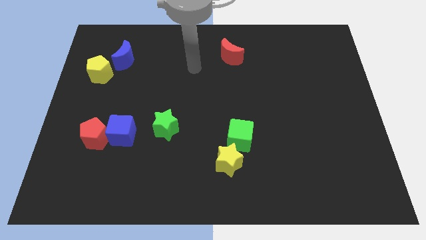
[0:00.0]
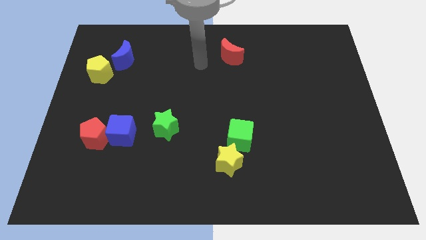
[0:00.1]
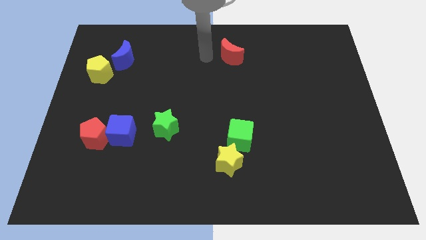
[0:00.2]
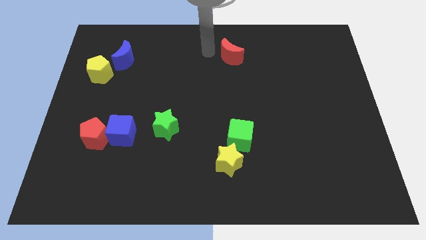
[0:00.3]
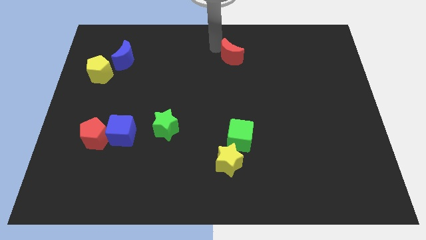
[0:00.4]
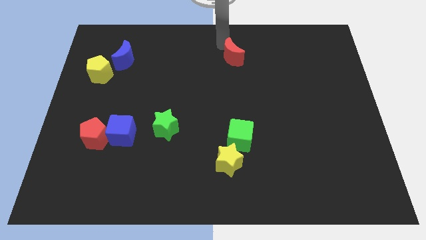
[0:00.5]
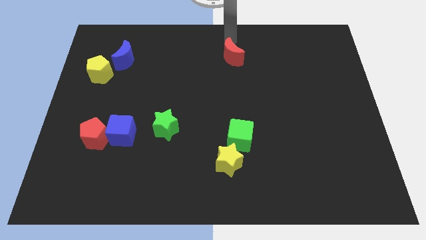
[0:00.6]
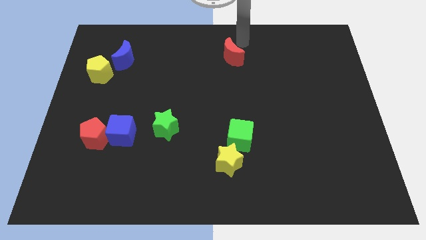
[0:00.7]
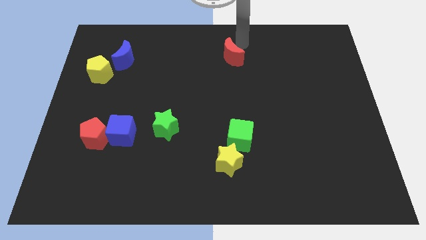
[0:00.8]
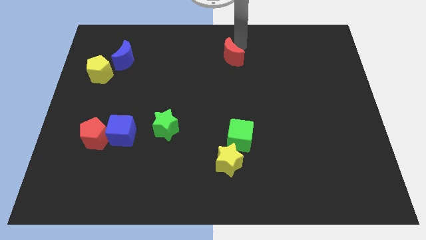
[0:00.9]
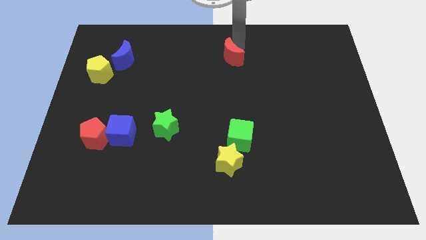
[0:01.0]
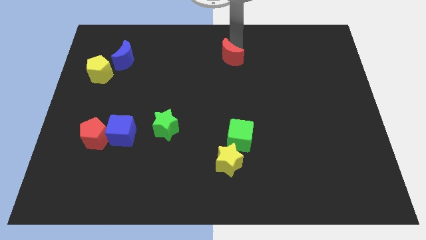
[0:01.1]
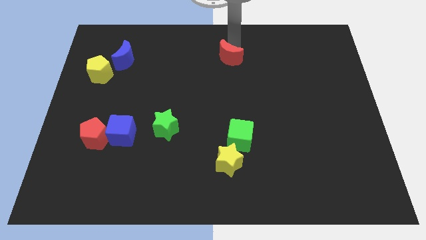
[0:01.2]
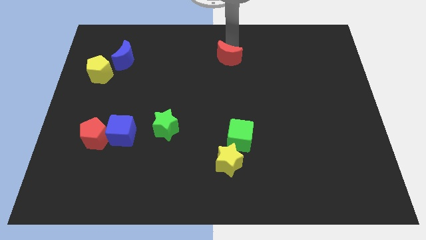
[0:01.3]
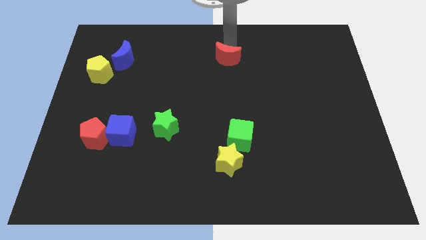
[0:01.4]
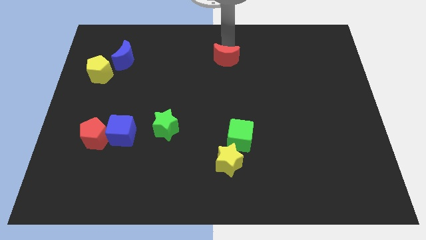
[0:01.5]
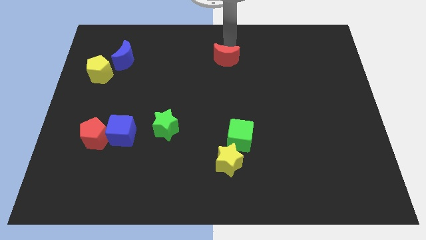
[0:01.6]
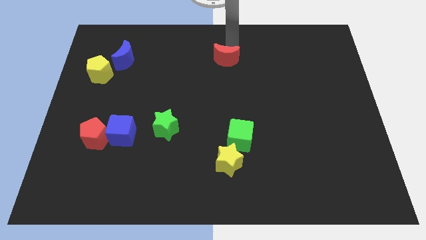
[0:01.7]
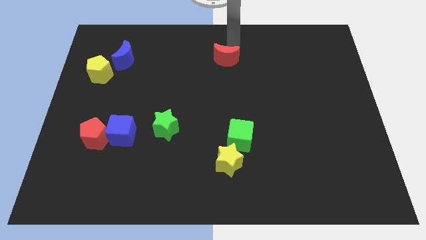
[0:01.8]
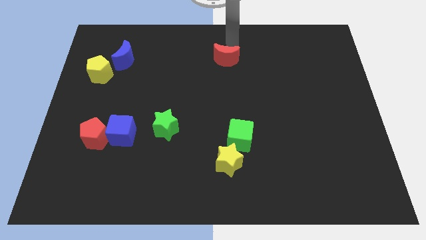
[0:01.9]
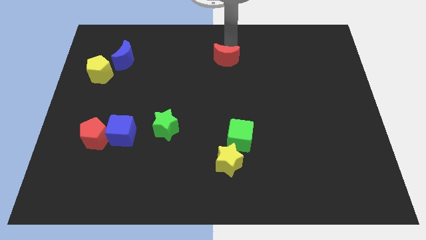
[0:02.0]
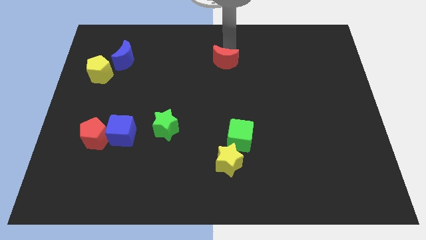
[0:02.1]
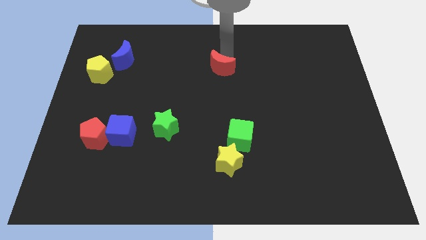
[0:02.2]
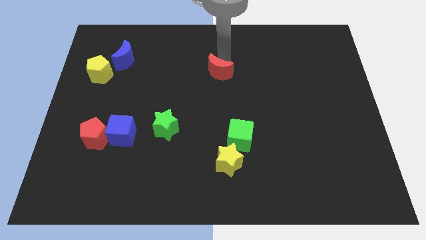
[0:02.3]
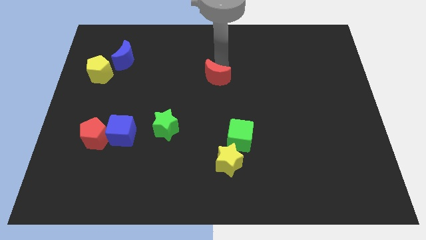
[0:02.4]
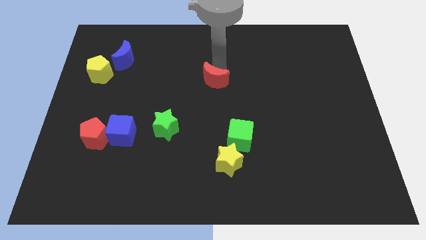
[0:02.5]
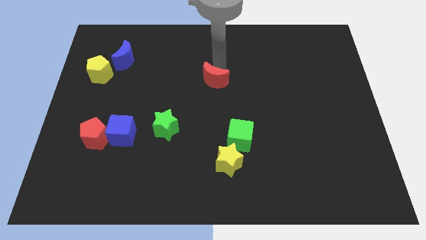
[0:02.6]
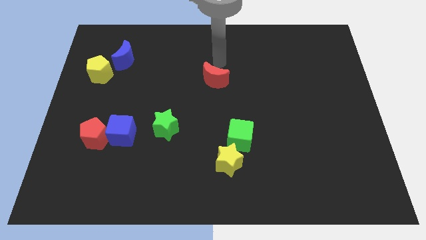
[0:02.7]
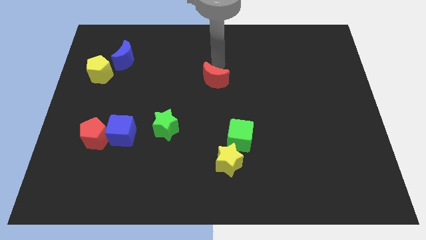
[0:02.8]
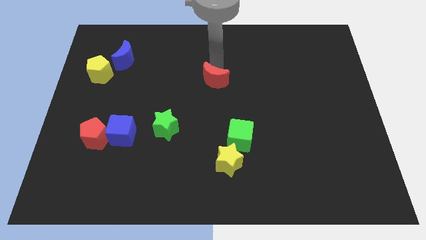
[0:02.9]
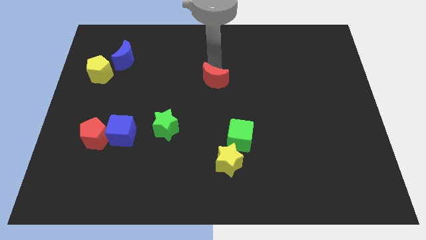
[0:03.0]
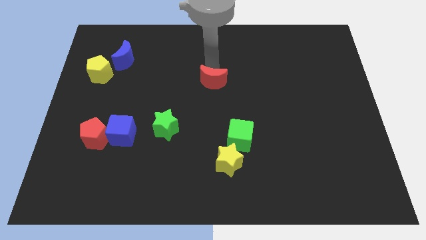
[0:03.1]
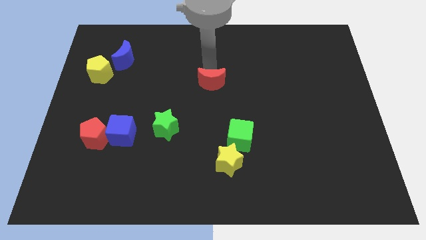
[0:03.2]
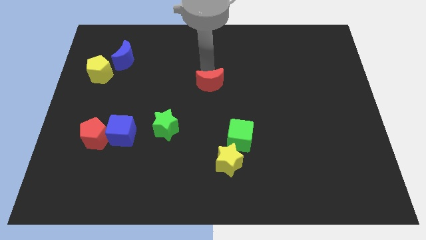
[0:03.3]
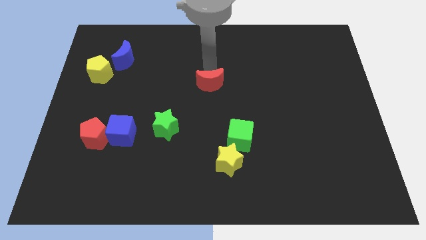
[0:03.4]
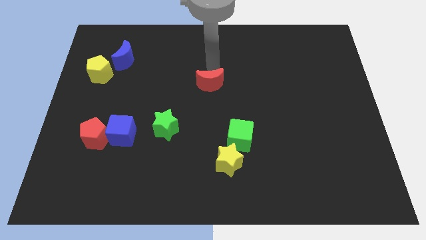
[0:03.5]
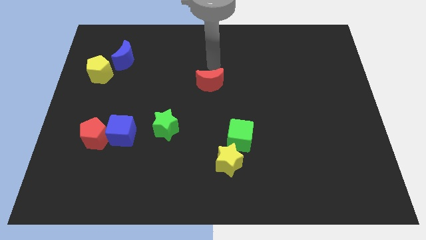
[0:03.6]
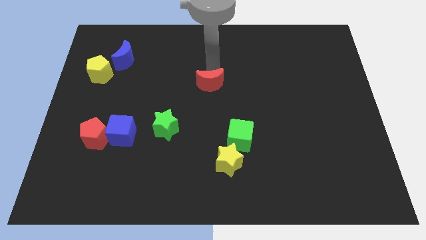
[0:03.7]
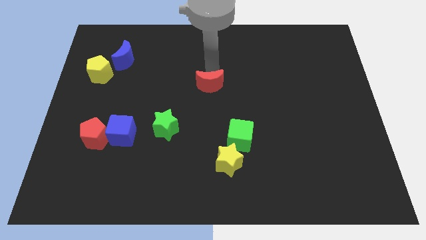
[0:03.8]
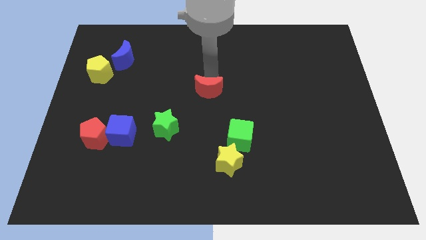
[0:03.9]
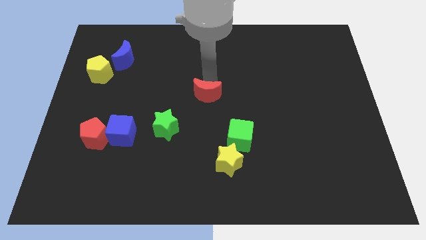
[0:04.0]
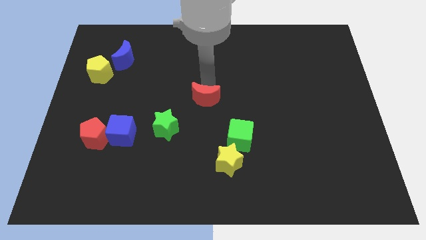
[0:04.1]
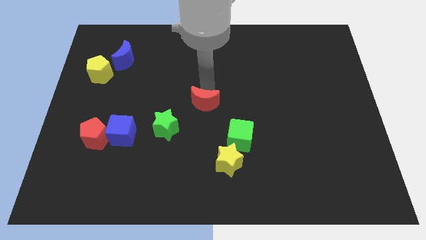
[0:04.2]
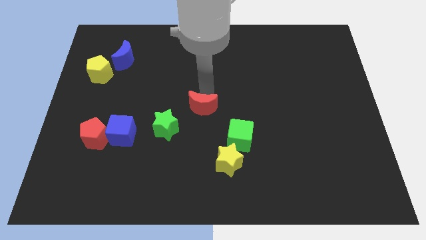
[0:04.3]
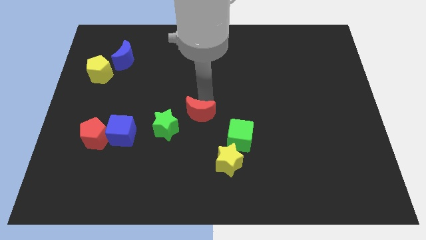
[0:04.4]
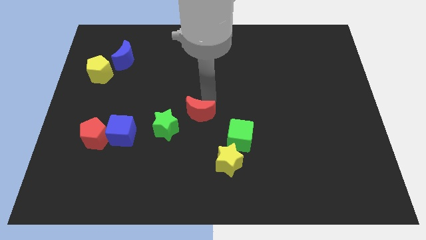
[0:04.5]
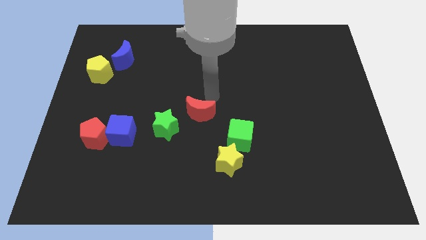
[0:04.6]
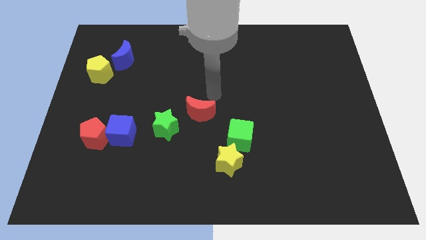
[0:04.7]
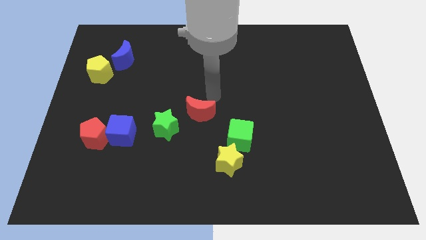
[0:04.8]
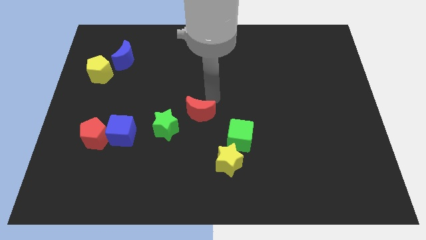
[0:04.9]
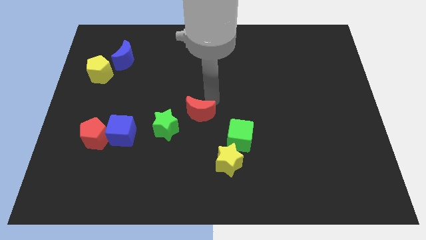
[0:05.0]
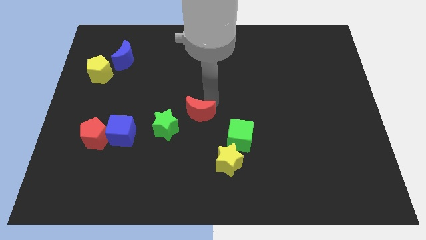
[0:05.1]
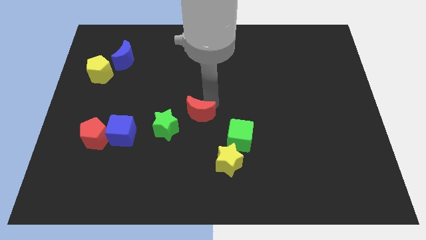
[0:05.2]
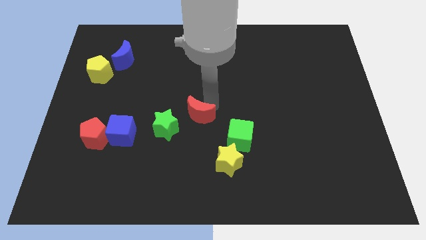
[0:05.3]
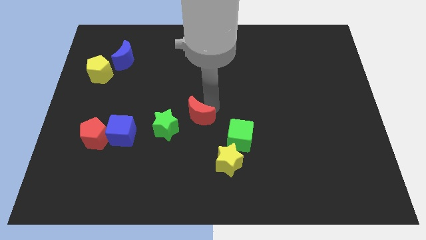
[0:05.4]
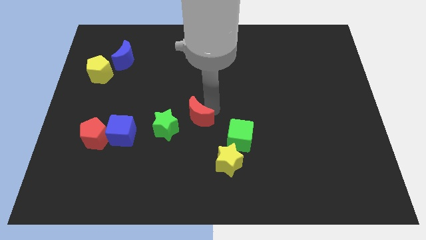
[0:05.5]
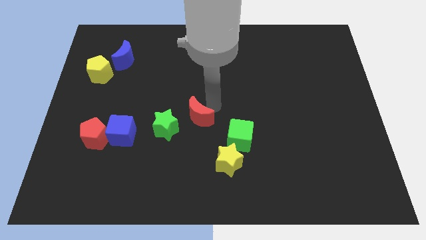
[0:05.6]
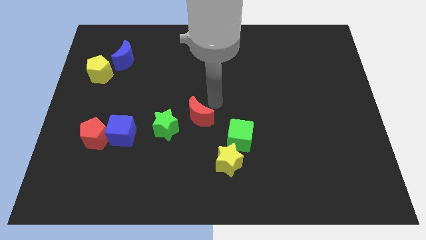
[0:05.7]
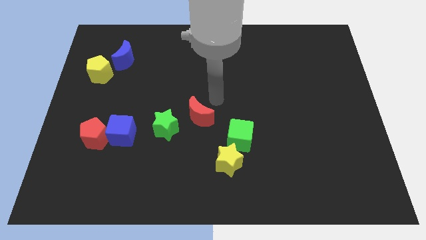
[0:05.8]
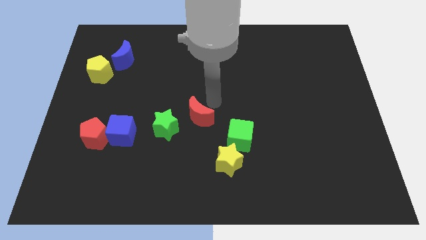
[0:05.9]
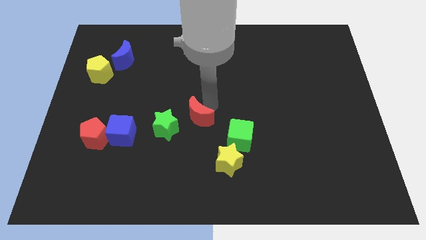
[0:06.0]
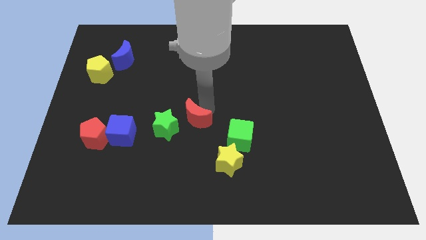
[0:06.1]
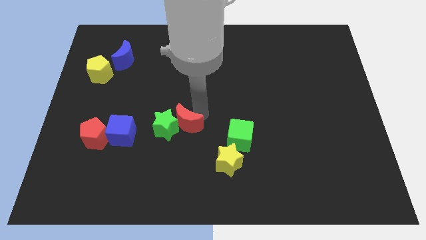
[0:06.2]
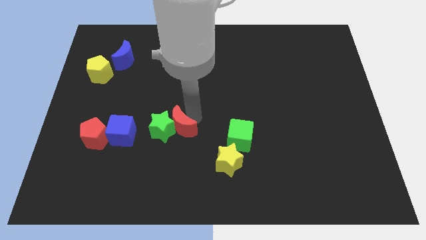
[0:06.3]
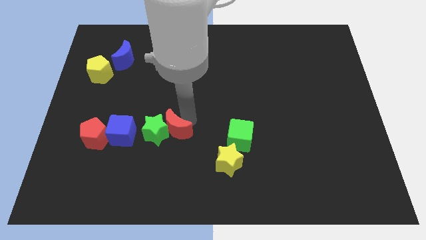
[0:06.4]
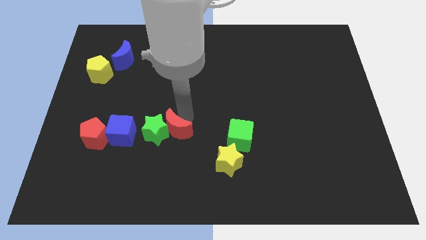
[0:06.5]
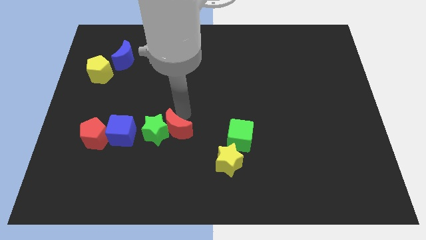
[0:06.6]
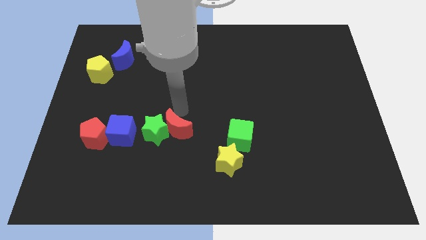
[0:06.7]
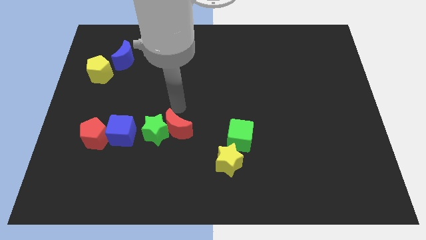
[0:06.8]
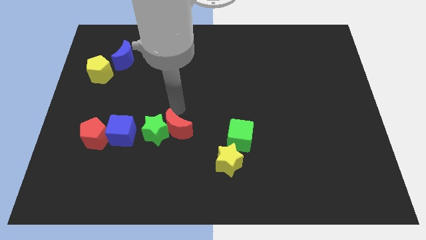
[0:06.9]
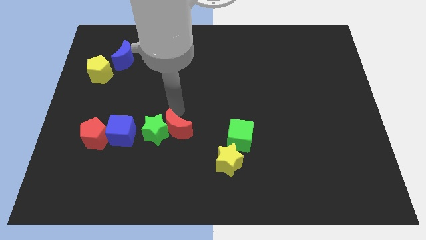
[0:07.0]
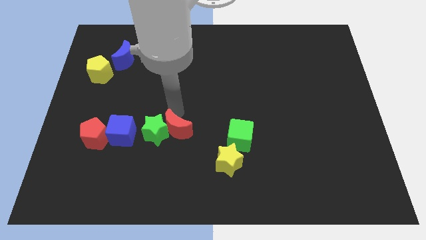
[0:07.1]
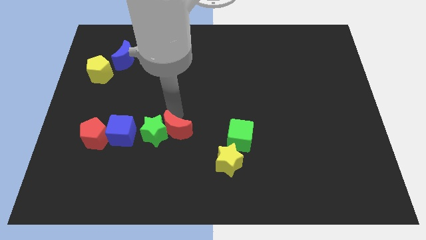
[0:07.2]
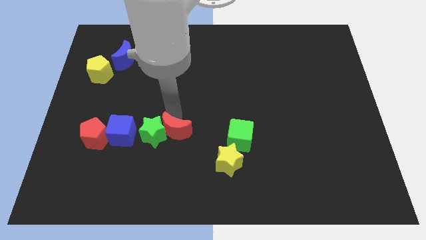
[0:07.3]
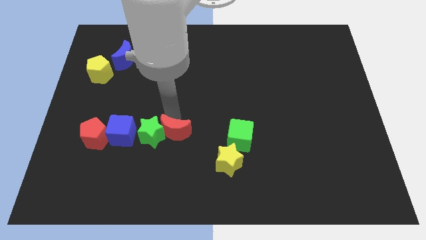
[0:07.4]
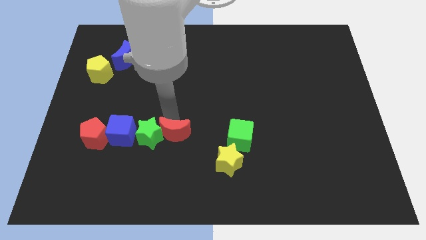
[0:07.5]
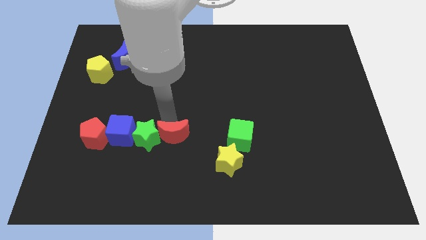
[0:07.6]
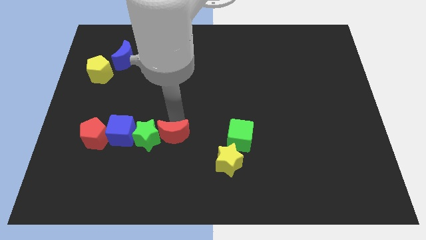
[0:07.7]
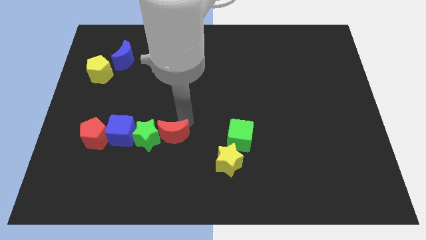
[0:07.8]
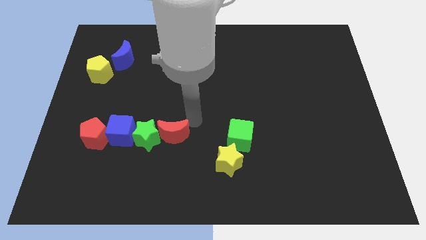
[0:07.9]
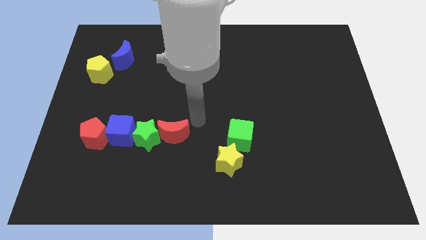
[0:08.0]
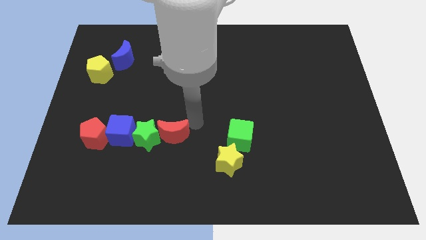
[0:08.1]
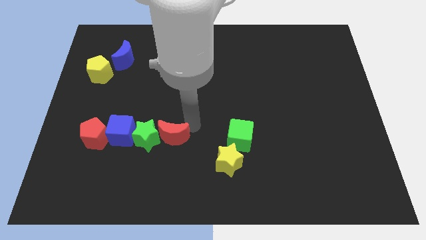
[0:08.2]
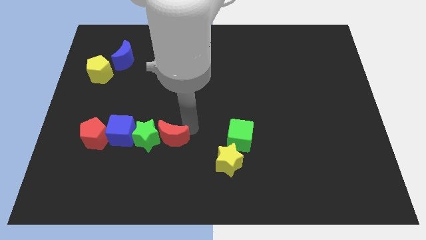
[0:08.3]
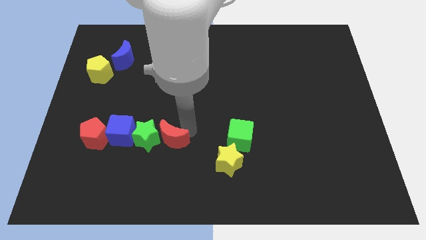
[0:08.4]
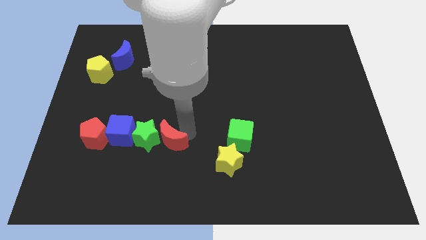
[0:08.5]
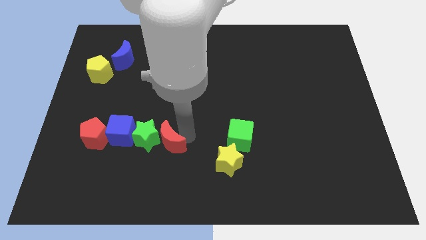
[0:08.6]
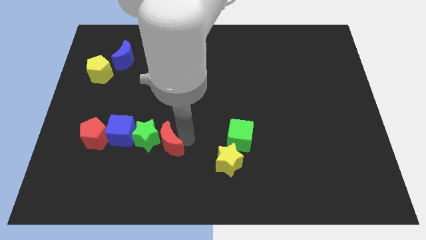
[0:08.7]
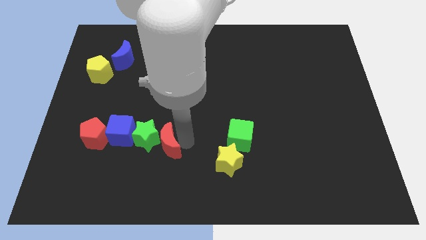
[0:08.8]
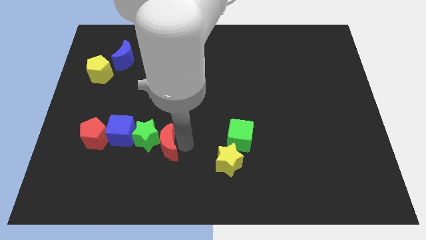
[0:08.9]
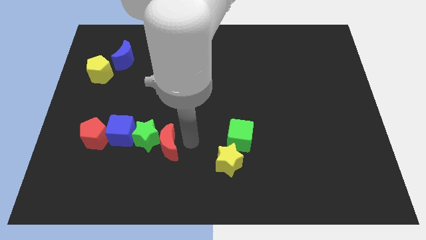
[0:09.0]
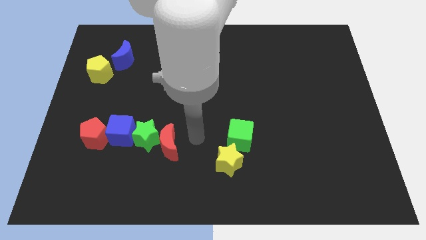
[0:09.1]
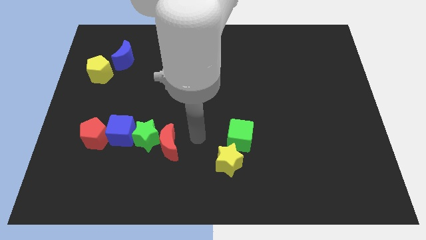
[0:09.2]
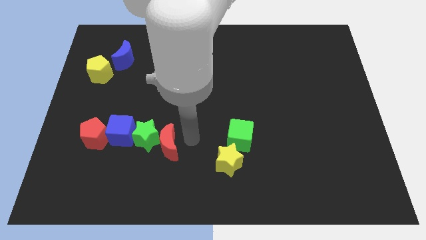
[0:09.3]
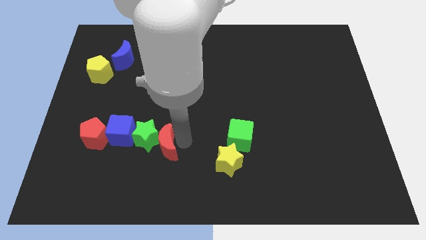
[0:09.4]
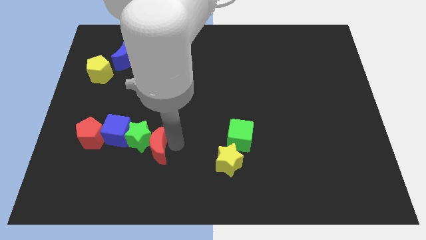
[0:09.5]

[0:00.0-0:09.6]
move the red moon to the bottom right side of the blue cube
